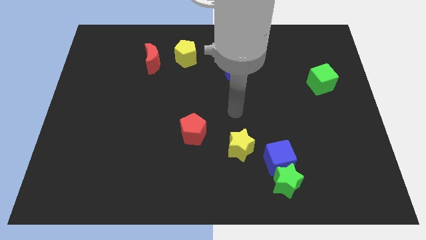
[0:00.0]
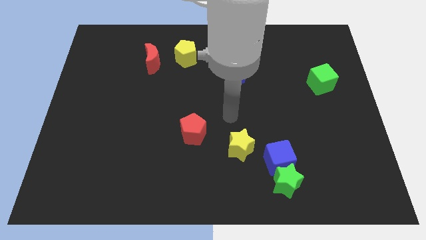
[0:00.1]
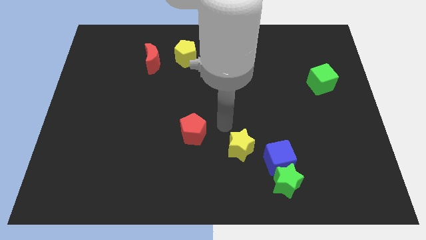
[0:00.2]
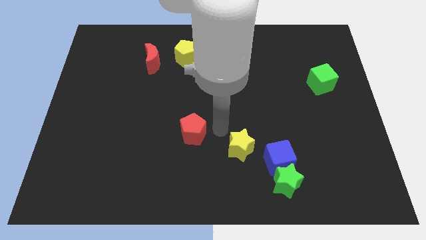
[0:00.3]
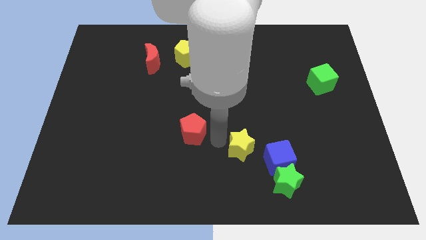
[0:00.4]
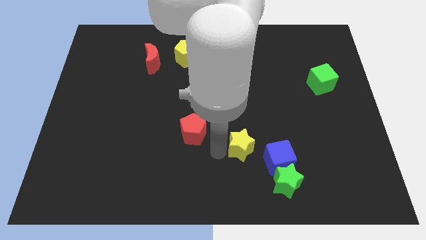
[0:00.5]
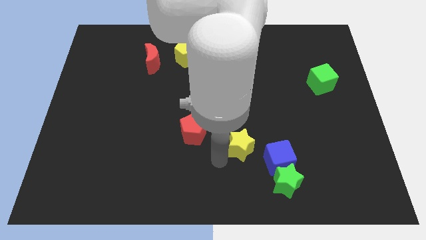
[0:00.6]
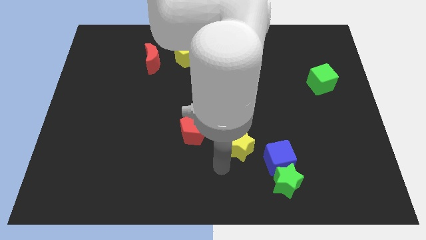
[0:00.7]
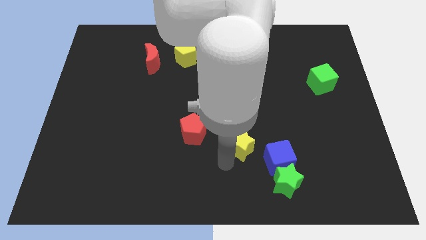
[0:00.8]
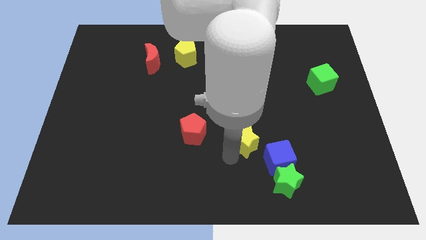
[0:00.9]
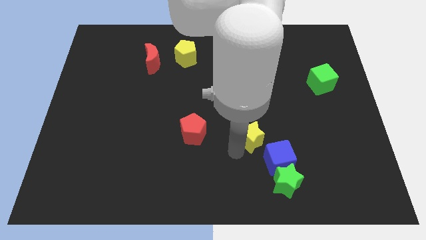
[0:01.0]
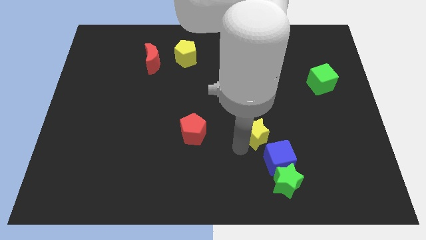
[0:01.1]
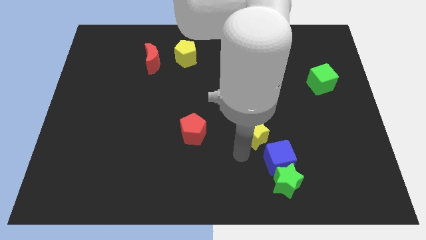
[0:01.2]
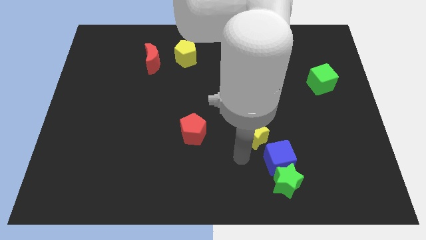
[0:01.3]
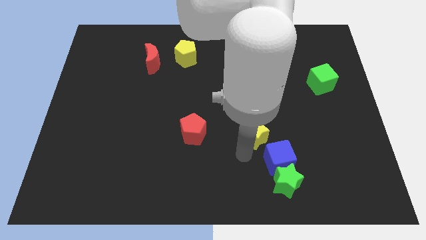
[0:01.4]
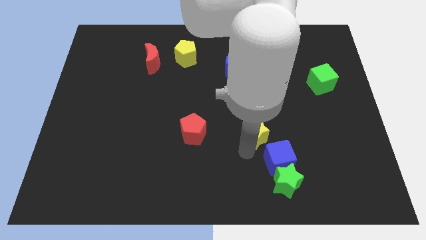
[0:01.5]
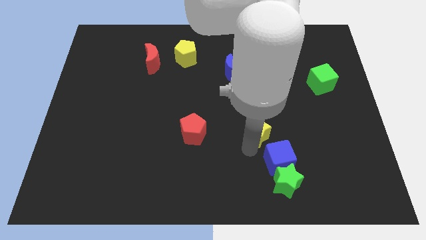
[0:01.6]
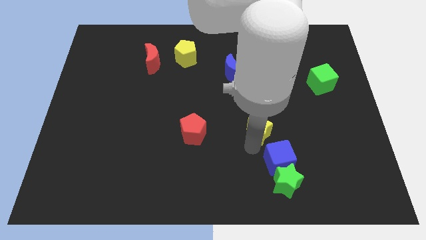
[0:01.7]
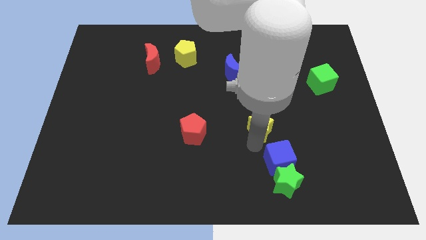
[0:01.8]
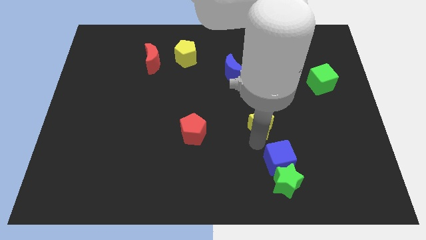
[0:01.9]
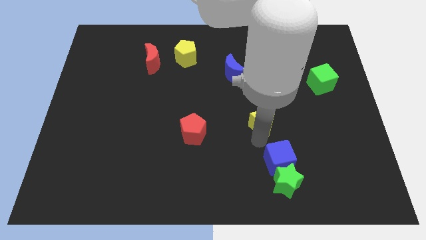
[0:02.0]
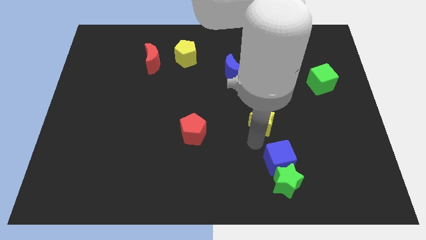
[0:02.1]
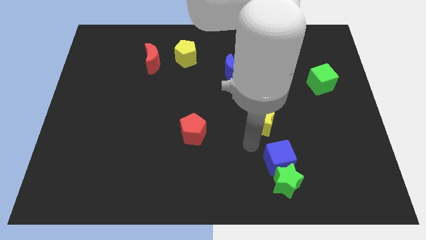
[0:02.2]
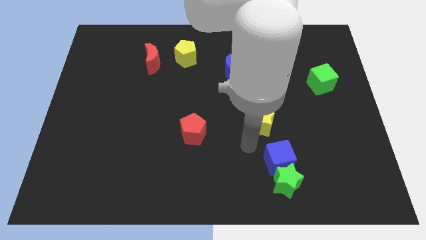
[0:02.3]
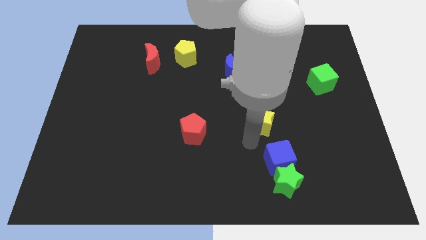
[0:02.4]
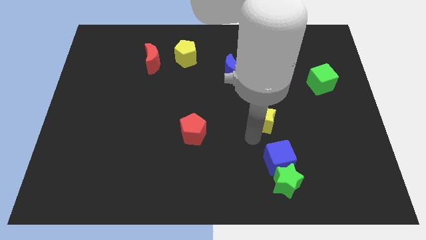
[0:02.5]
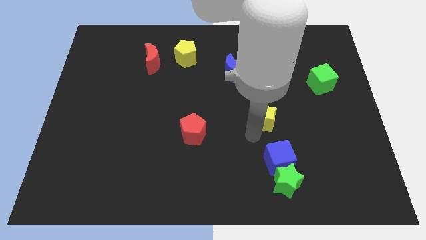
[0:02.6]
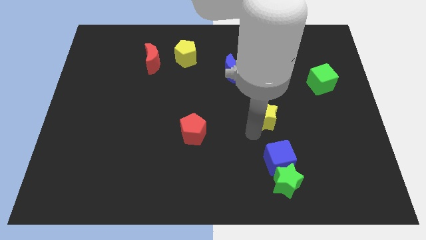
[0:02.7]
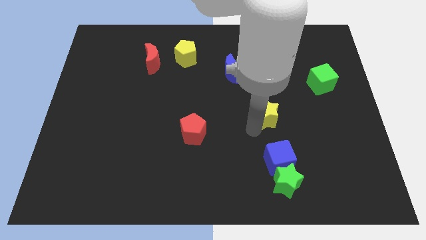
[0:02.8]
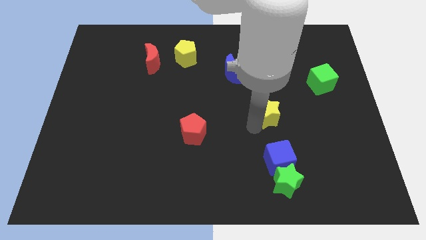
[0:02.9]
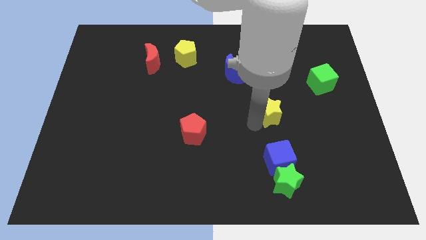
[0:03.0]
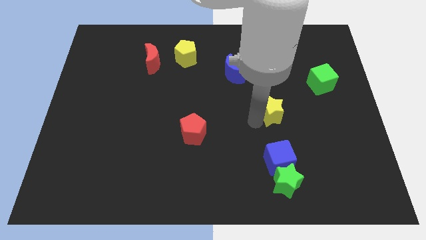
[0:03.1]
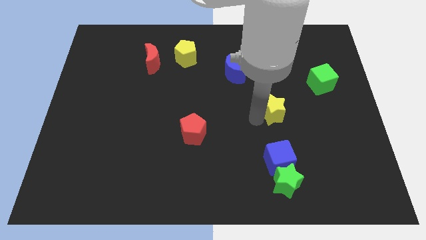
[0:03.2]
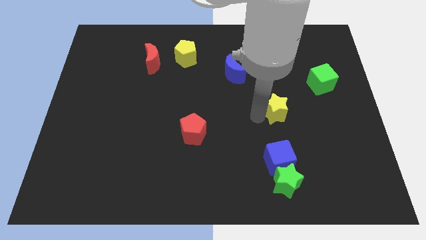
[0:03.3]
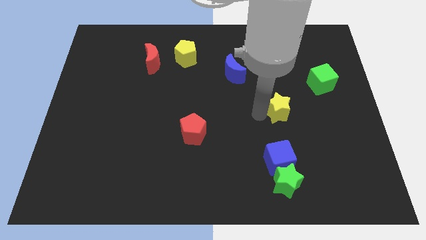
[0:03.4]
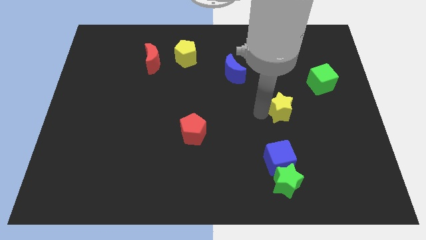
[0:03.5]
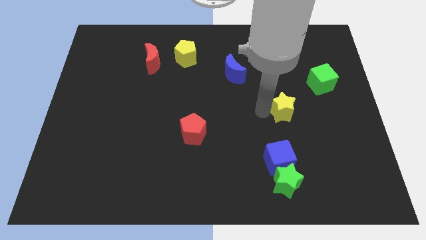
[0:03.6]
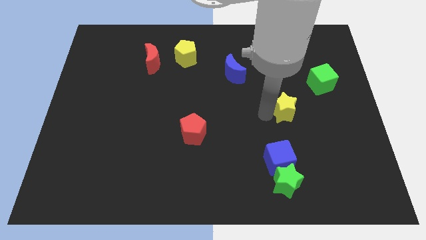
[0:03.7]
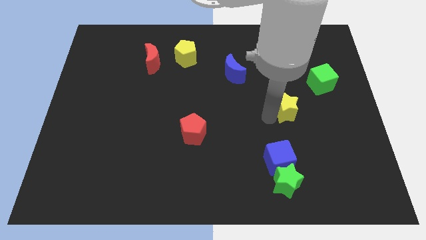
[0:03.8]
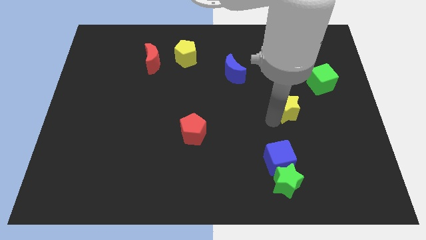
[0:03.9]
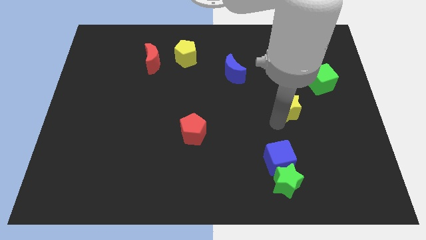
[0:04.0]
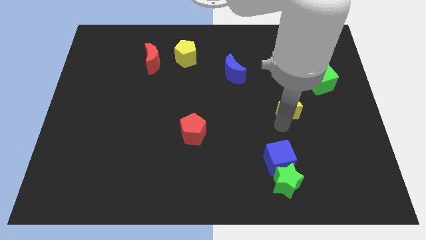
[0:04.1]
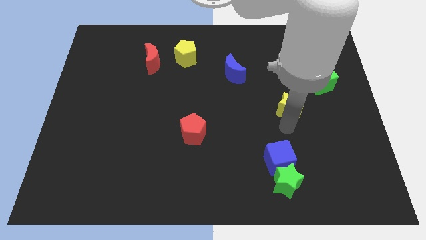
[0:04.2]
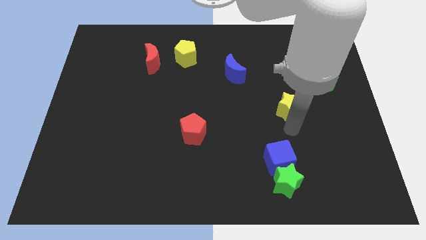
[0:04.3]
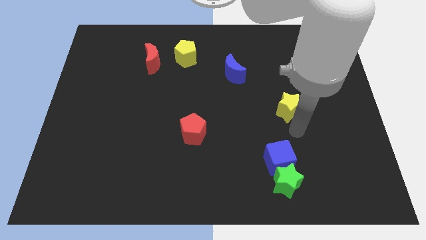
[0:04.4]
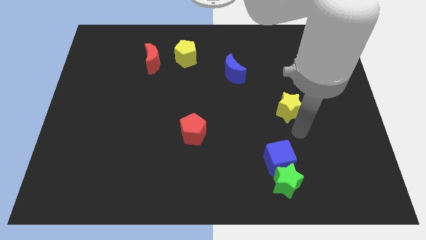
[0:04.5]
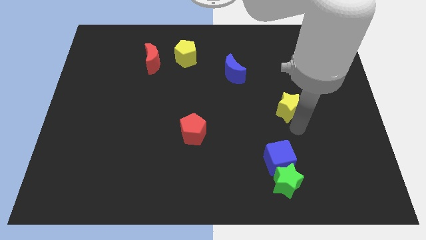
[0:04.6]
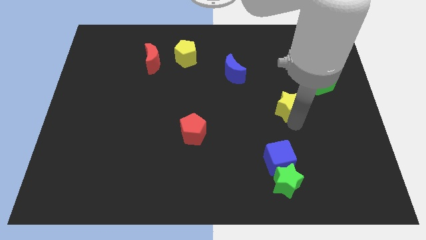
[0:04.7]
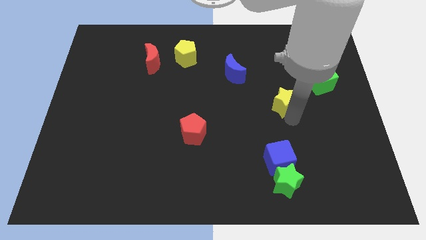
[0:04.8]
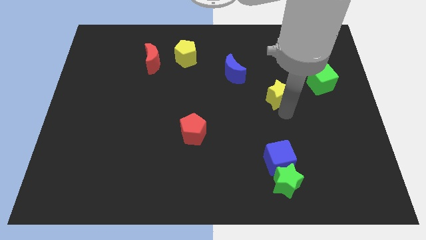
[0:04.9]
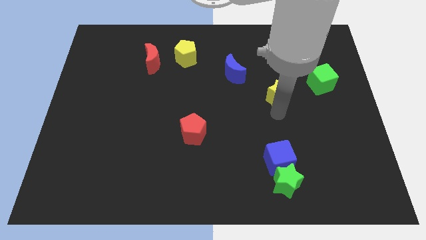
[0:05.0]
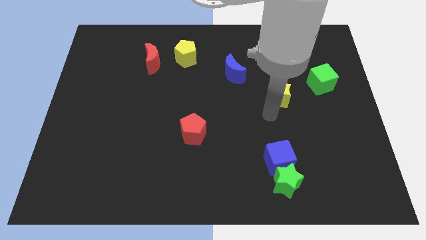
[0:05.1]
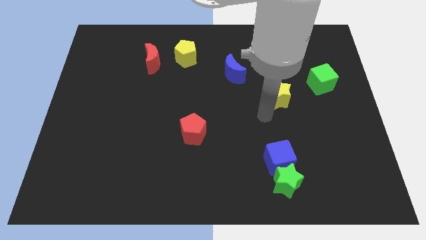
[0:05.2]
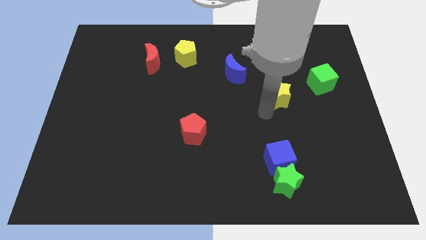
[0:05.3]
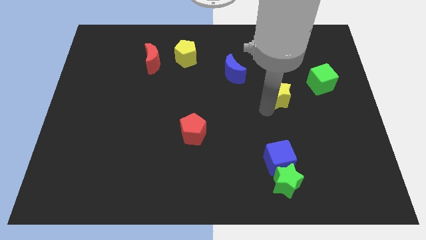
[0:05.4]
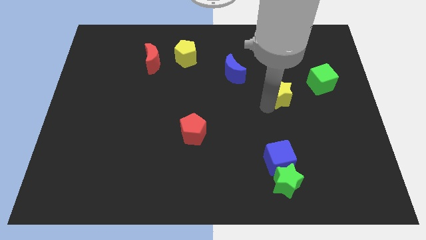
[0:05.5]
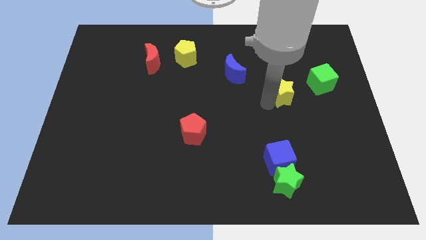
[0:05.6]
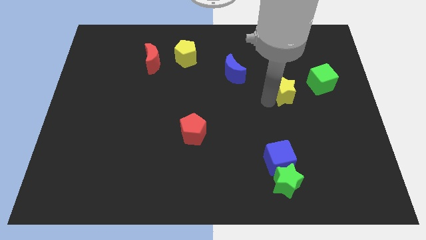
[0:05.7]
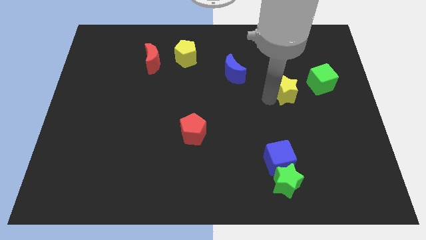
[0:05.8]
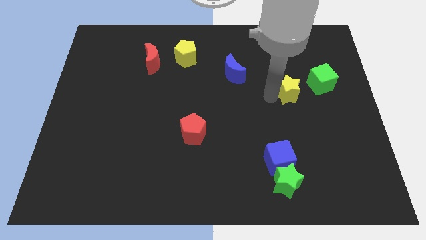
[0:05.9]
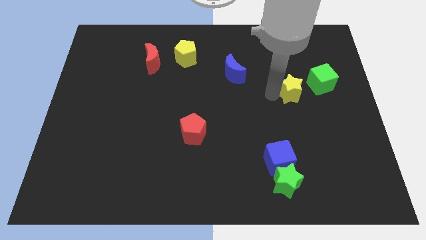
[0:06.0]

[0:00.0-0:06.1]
slide the yellow star upwards and then to the right

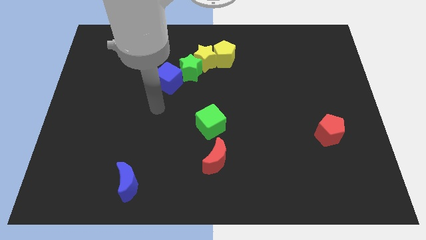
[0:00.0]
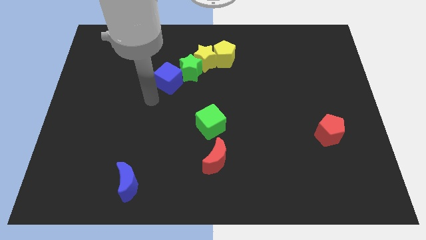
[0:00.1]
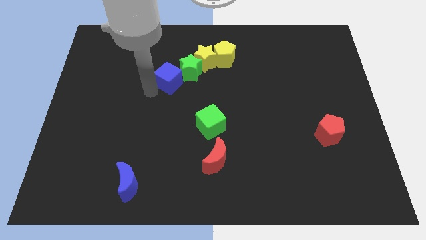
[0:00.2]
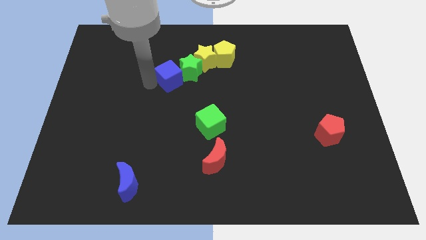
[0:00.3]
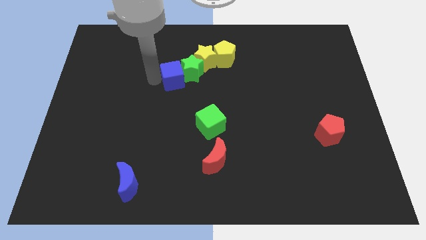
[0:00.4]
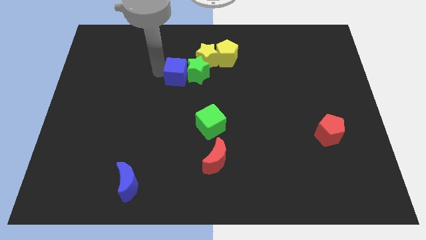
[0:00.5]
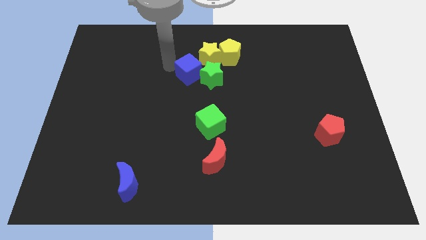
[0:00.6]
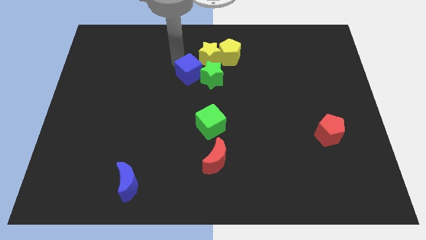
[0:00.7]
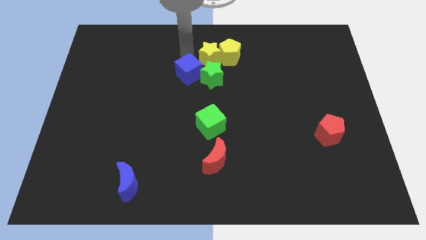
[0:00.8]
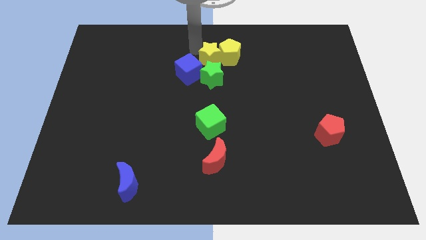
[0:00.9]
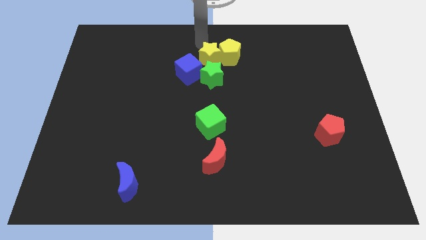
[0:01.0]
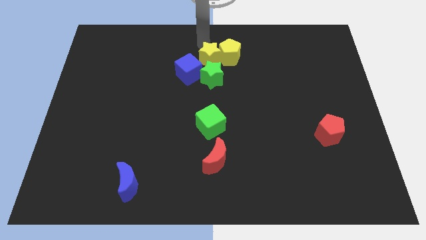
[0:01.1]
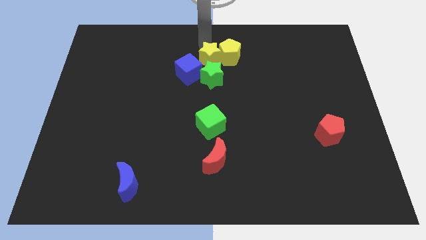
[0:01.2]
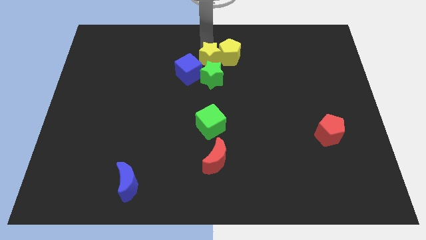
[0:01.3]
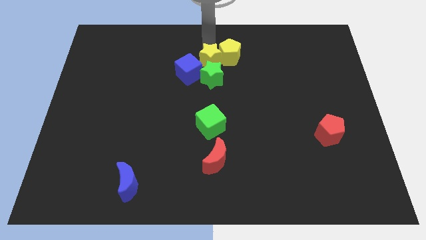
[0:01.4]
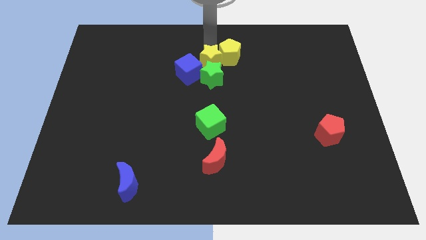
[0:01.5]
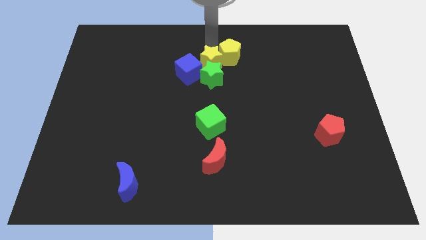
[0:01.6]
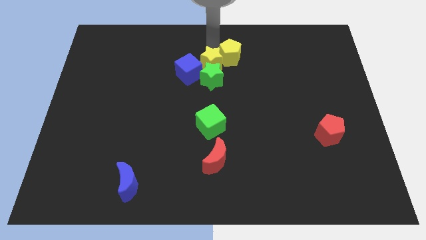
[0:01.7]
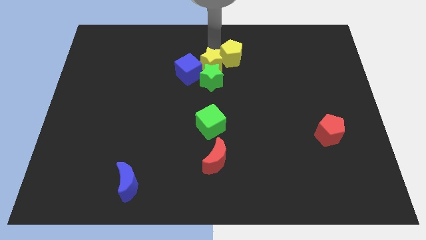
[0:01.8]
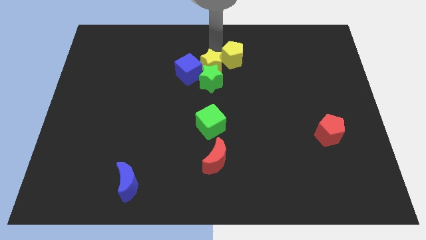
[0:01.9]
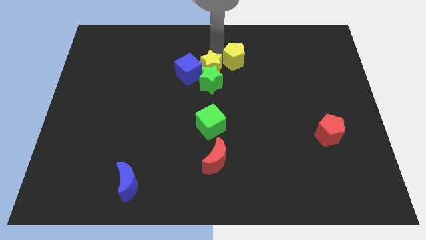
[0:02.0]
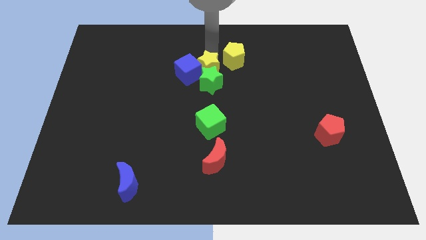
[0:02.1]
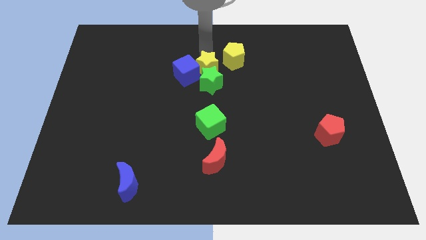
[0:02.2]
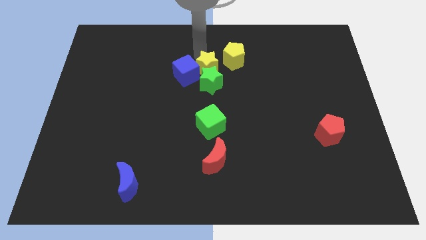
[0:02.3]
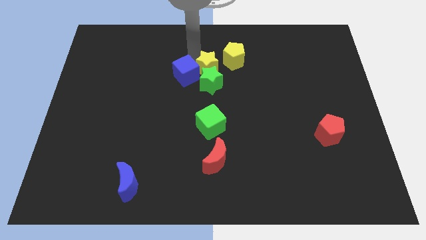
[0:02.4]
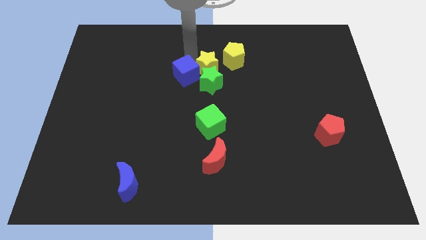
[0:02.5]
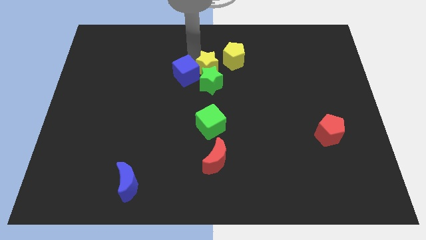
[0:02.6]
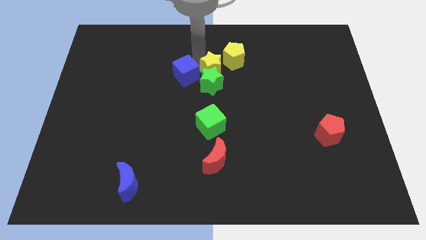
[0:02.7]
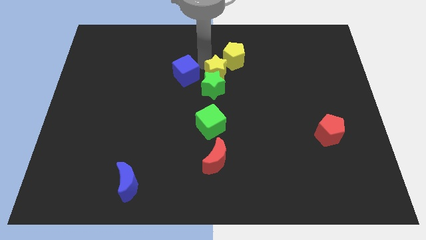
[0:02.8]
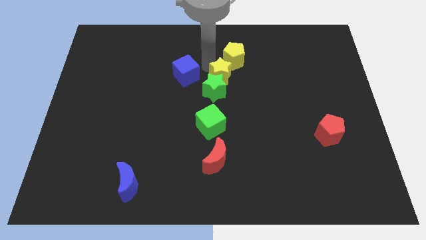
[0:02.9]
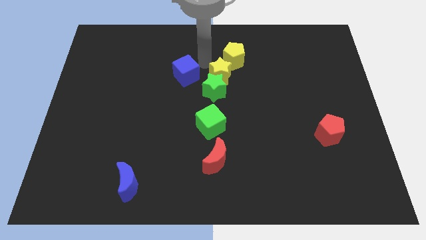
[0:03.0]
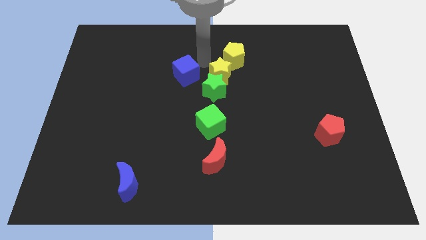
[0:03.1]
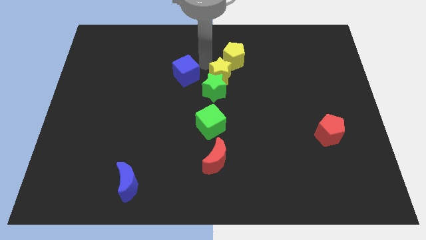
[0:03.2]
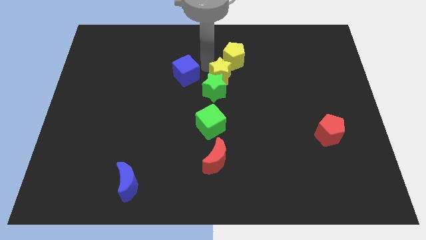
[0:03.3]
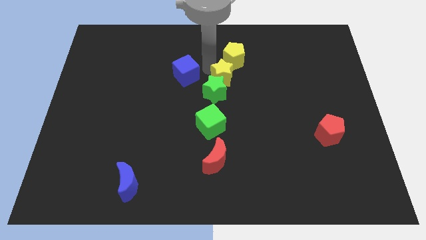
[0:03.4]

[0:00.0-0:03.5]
push the yellow star down and right a little
